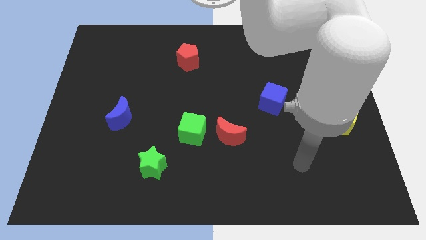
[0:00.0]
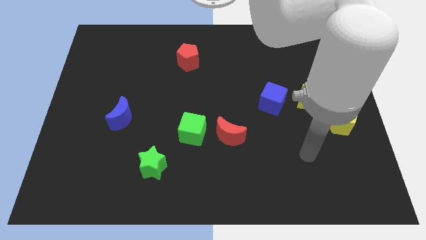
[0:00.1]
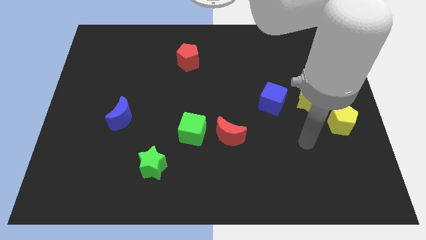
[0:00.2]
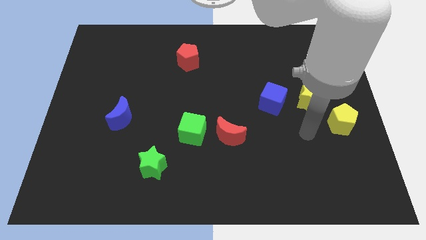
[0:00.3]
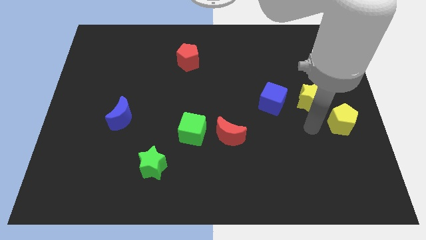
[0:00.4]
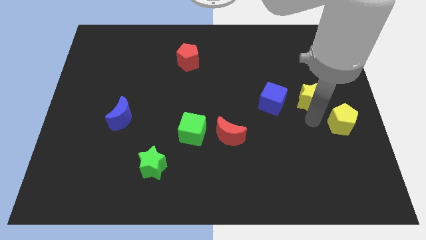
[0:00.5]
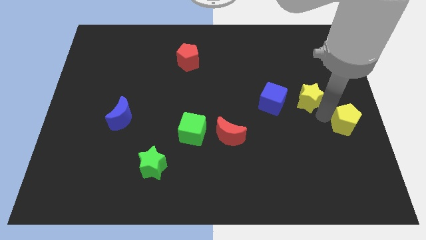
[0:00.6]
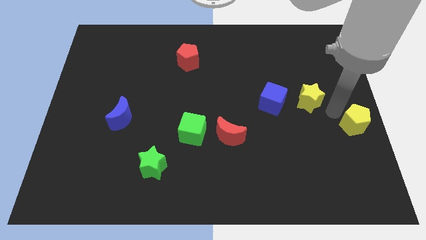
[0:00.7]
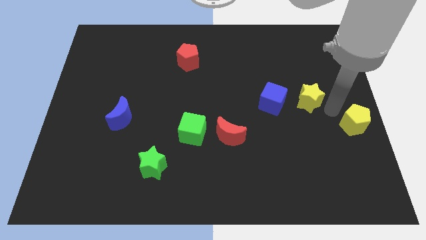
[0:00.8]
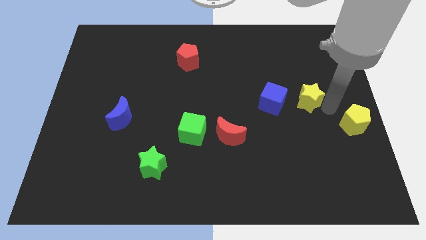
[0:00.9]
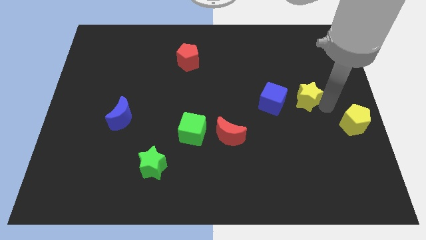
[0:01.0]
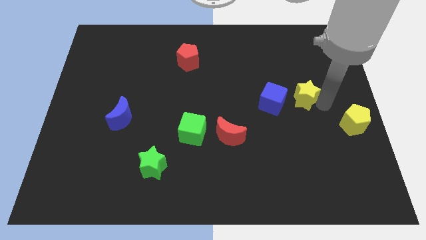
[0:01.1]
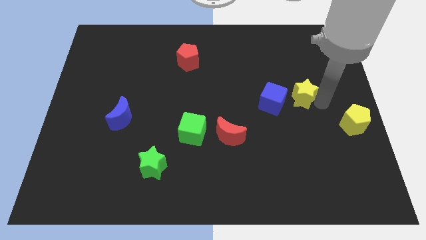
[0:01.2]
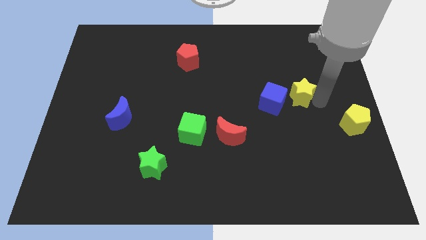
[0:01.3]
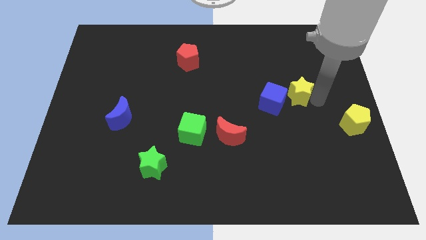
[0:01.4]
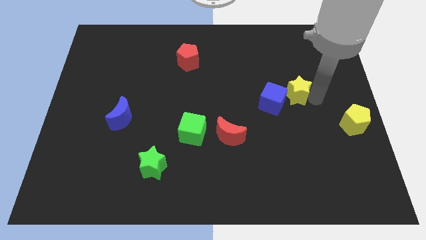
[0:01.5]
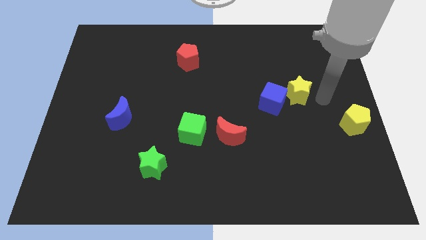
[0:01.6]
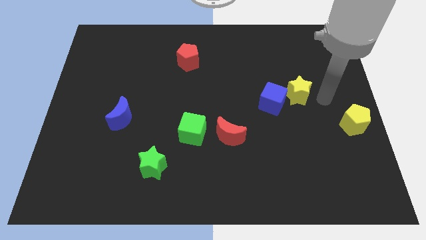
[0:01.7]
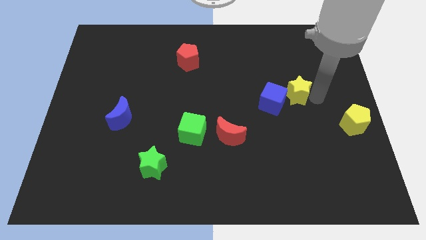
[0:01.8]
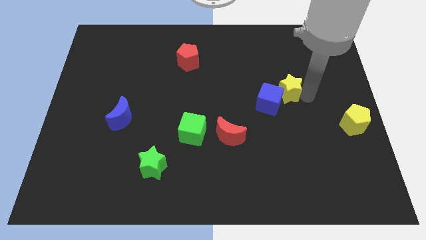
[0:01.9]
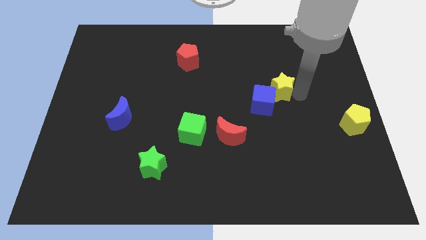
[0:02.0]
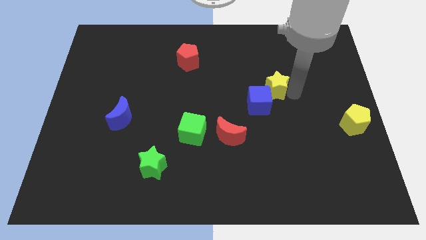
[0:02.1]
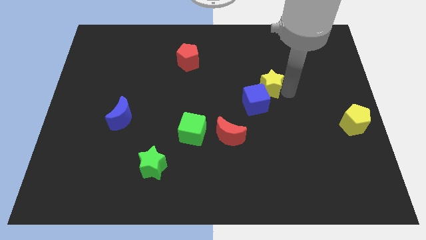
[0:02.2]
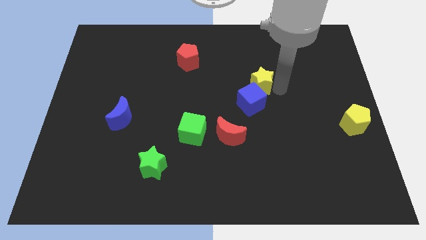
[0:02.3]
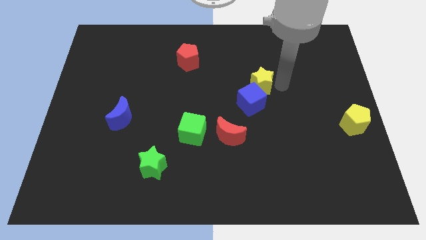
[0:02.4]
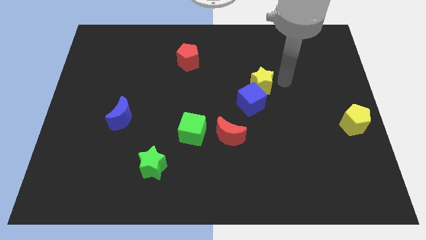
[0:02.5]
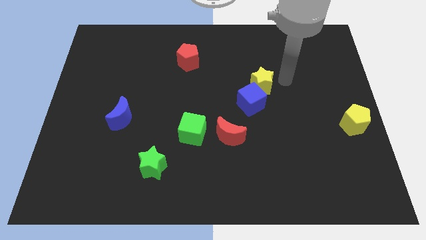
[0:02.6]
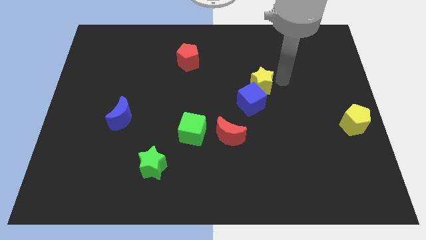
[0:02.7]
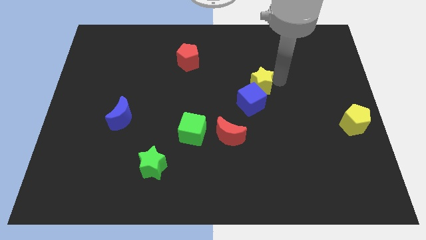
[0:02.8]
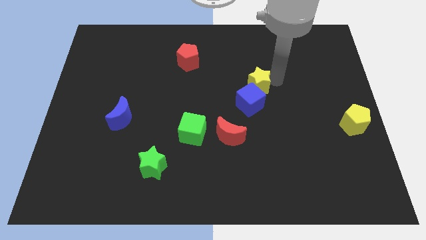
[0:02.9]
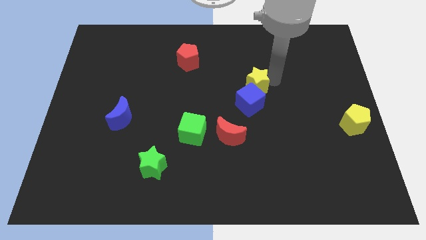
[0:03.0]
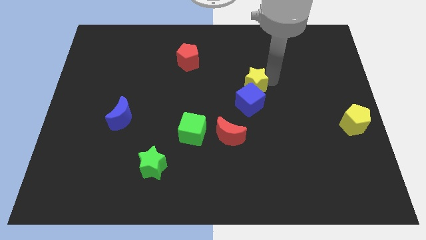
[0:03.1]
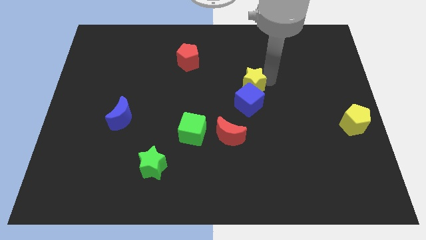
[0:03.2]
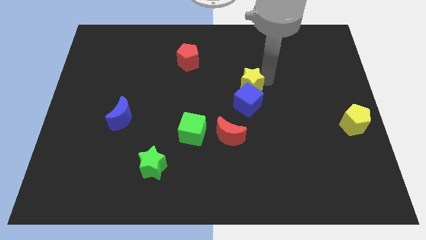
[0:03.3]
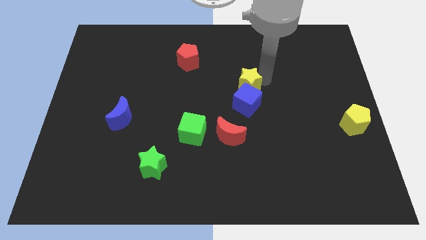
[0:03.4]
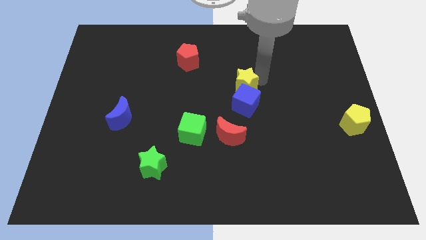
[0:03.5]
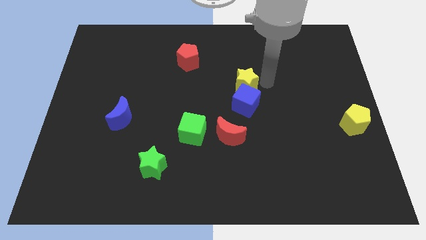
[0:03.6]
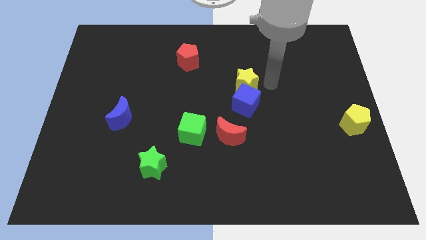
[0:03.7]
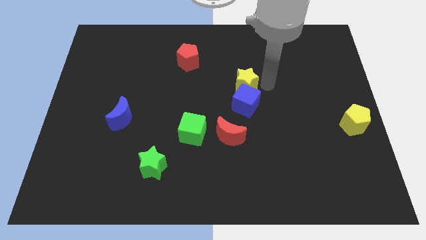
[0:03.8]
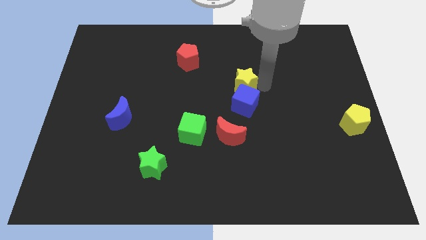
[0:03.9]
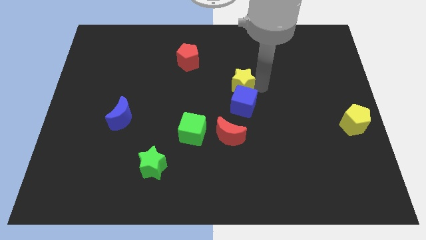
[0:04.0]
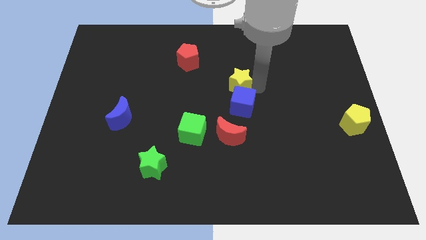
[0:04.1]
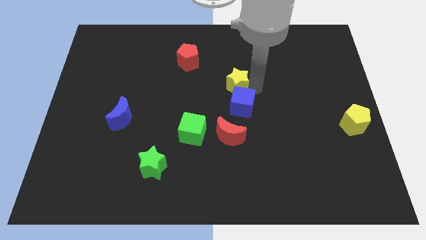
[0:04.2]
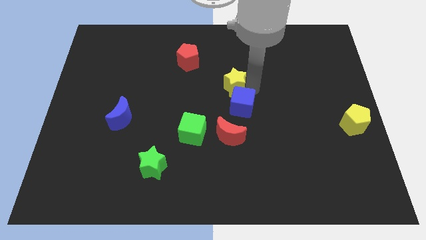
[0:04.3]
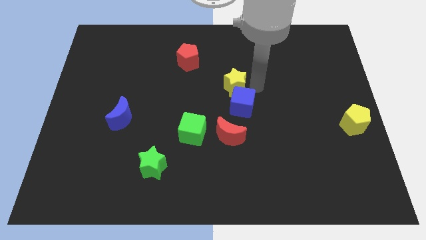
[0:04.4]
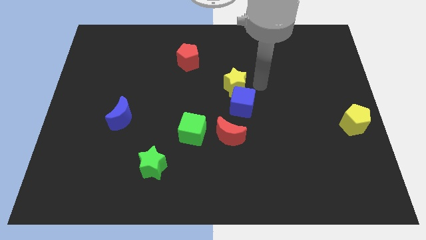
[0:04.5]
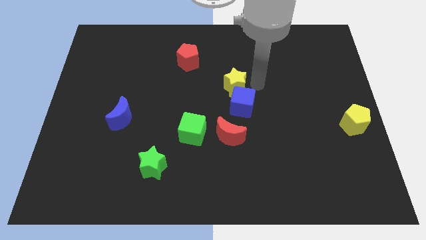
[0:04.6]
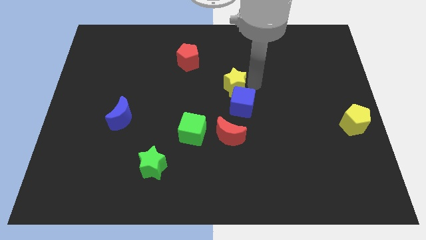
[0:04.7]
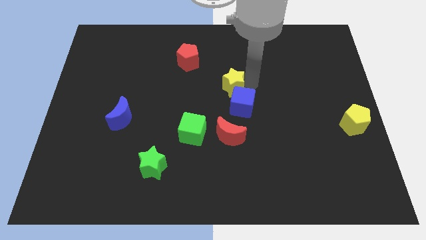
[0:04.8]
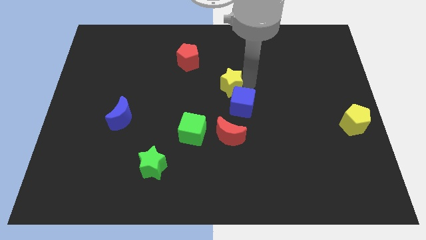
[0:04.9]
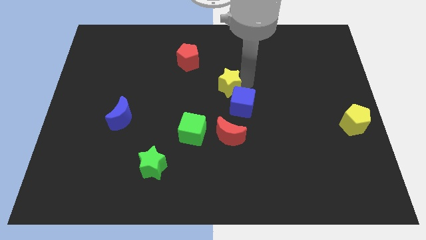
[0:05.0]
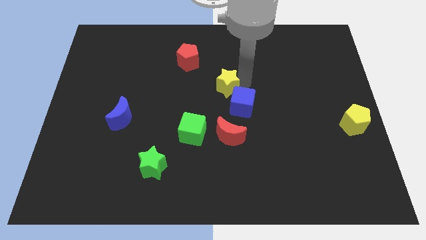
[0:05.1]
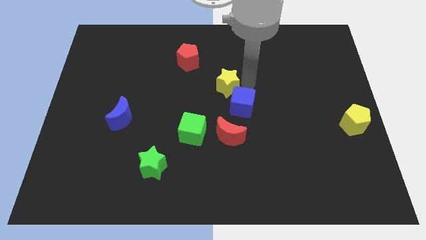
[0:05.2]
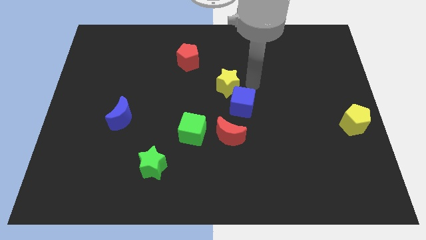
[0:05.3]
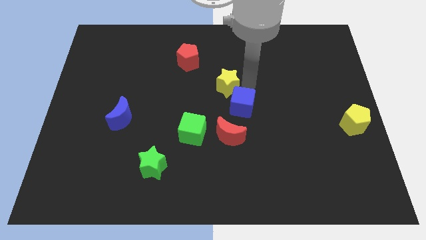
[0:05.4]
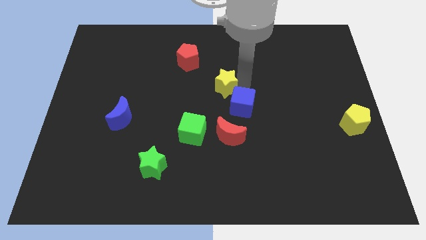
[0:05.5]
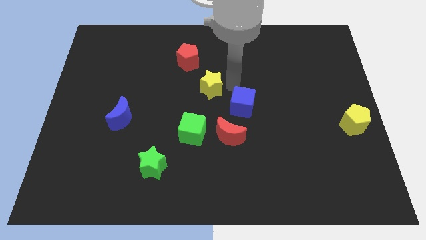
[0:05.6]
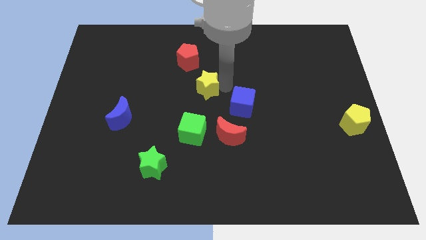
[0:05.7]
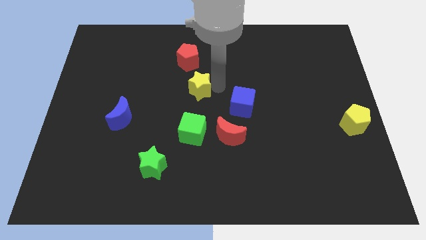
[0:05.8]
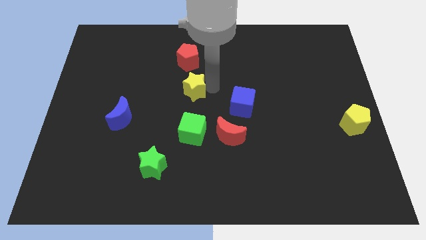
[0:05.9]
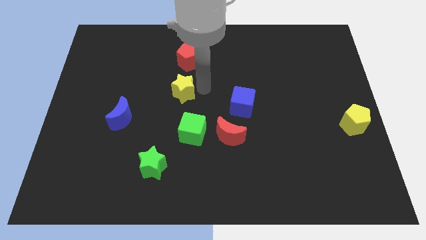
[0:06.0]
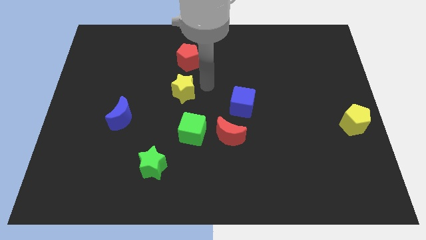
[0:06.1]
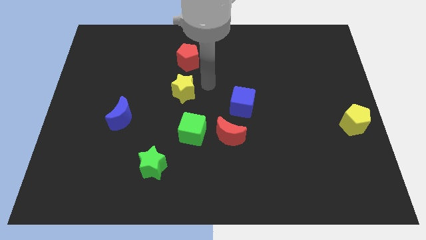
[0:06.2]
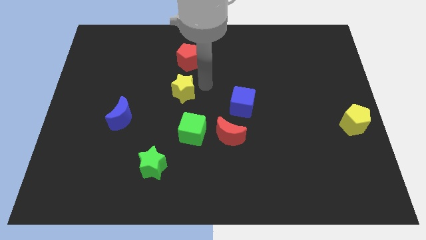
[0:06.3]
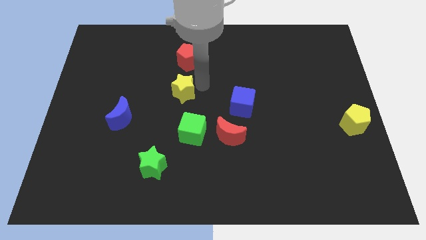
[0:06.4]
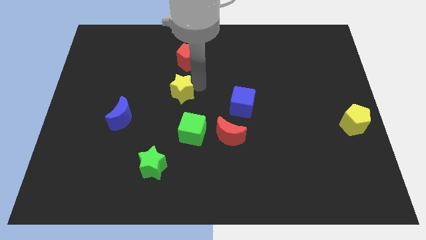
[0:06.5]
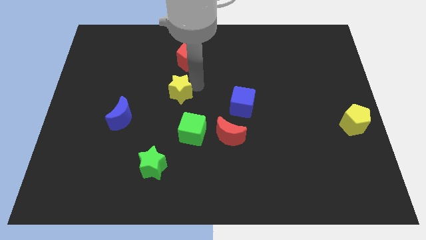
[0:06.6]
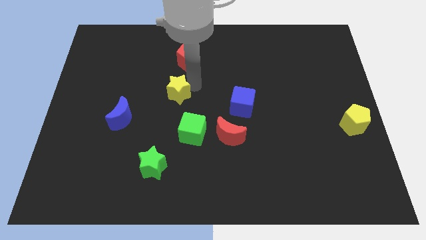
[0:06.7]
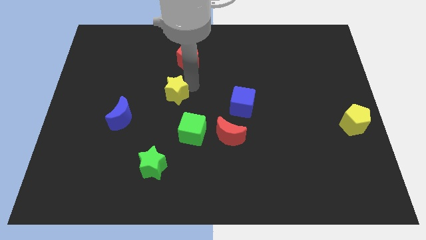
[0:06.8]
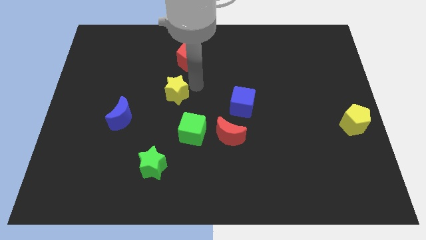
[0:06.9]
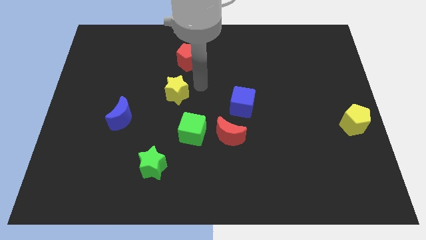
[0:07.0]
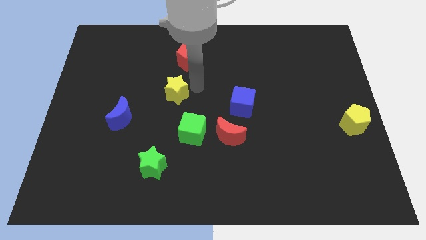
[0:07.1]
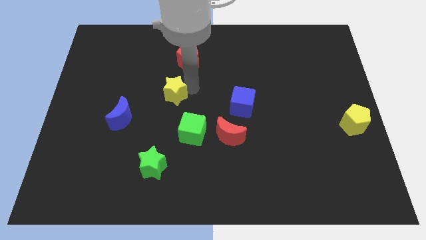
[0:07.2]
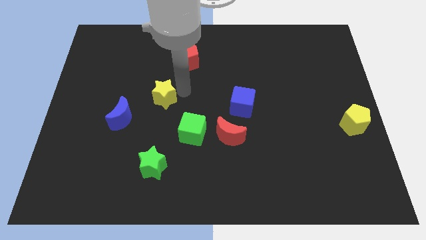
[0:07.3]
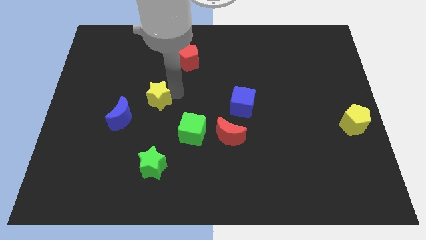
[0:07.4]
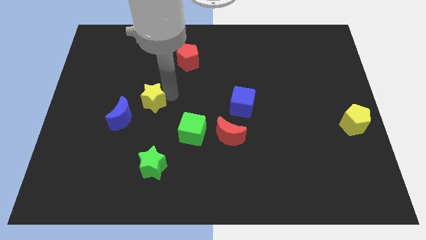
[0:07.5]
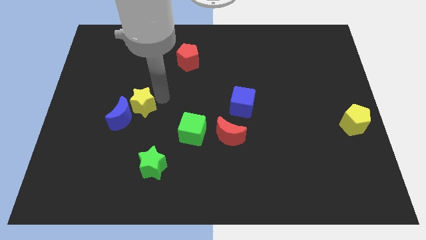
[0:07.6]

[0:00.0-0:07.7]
move the yellow star towards the blue moon
